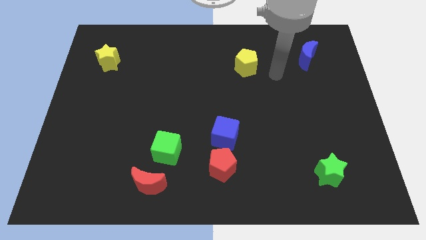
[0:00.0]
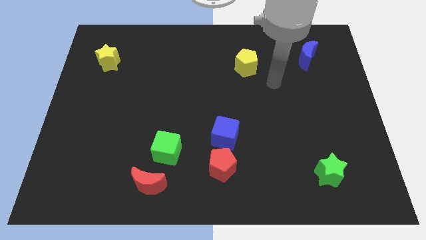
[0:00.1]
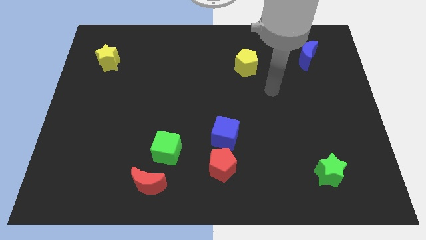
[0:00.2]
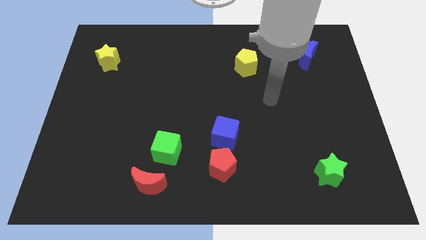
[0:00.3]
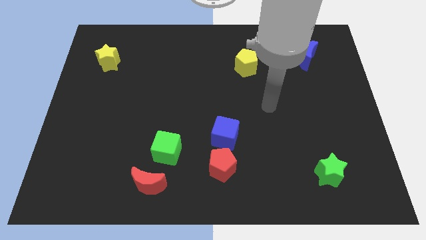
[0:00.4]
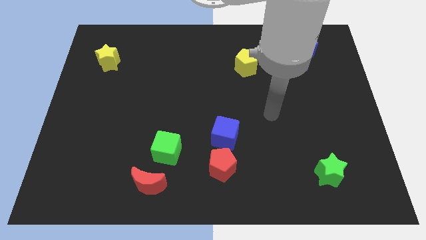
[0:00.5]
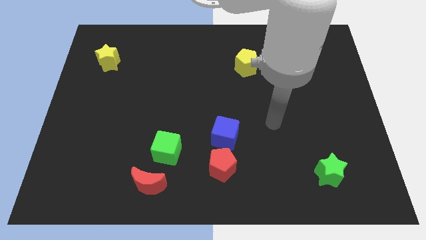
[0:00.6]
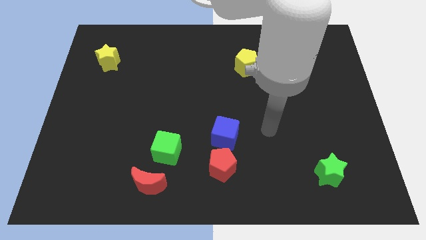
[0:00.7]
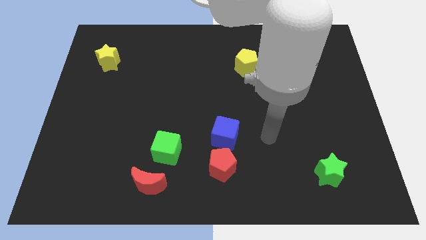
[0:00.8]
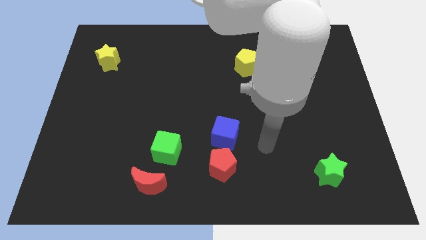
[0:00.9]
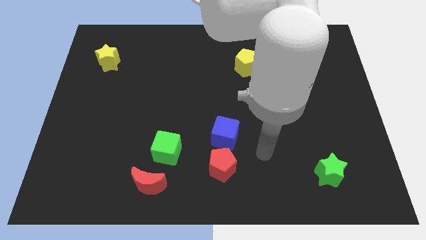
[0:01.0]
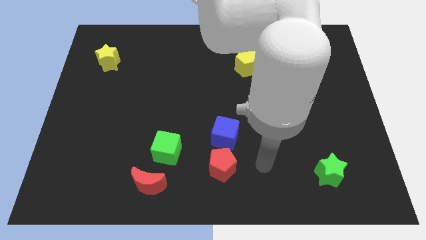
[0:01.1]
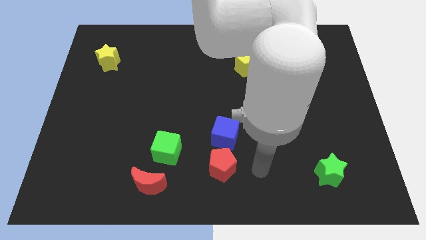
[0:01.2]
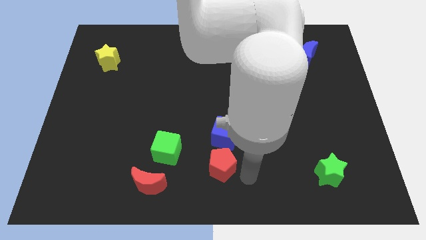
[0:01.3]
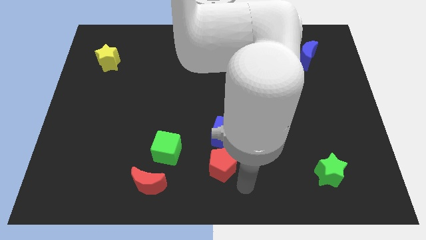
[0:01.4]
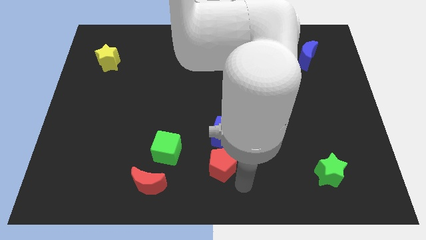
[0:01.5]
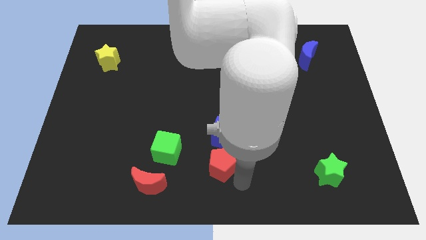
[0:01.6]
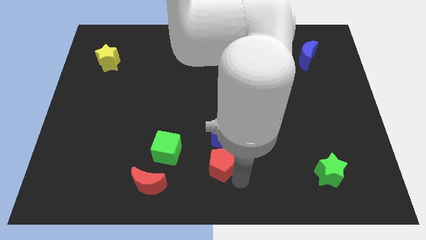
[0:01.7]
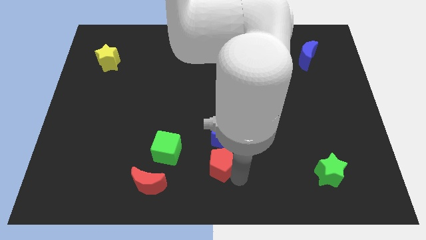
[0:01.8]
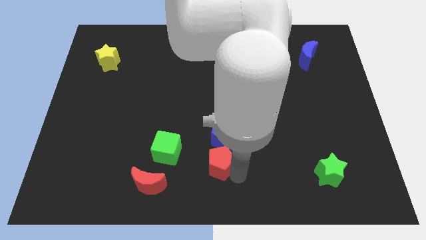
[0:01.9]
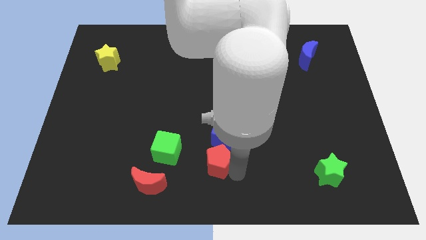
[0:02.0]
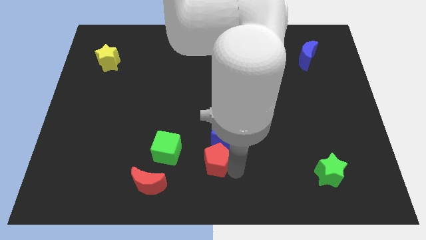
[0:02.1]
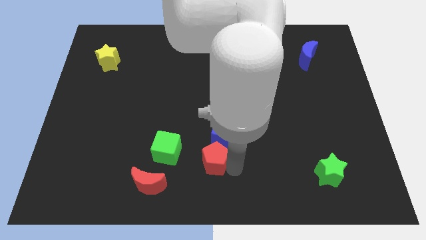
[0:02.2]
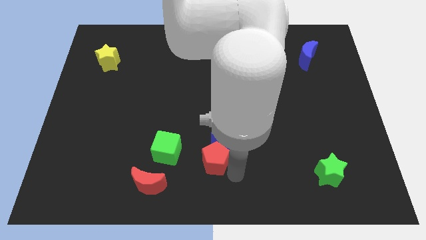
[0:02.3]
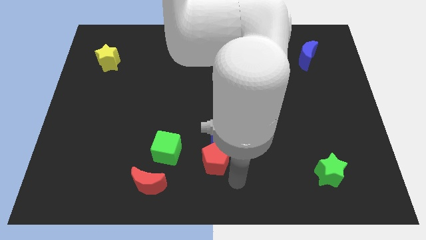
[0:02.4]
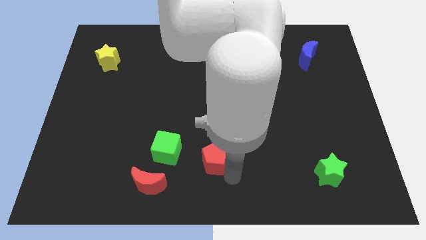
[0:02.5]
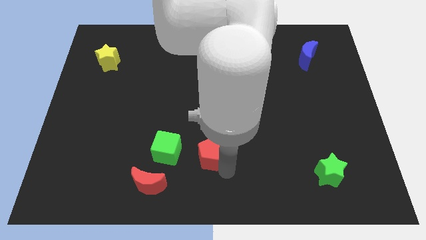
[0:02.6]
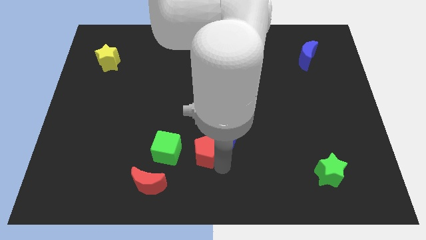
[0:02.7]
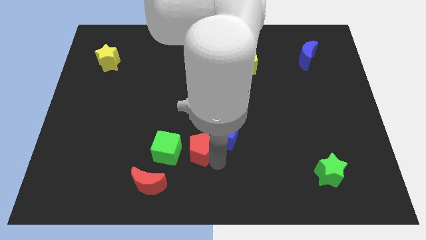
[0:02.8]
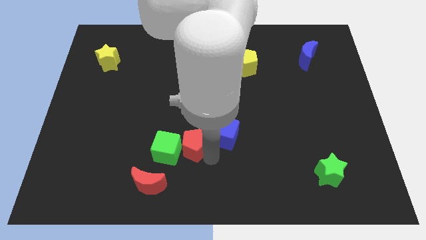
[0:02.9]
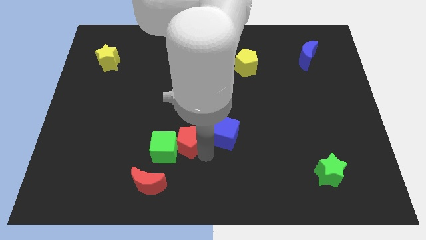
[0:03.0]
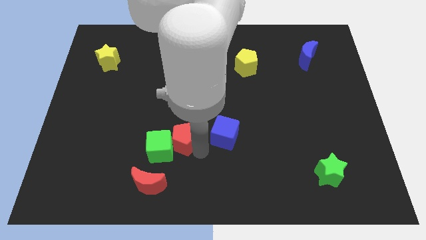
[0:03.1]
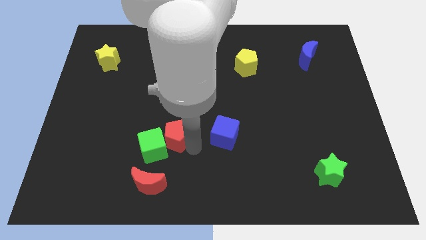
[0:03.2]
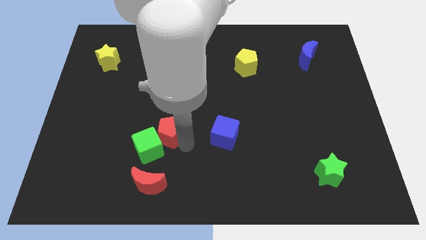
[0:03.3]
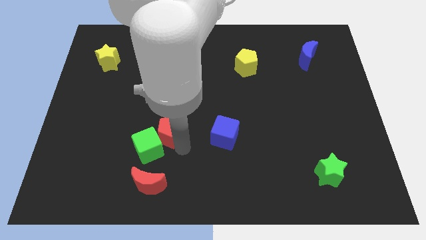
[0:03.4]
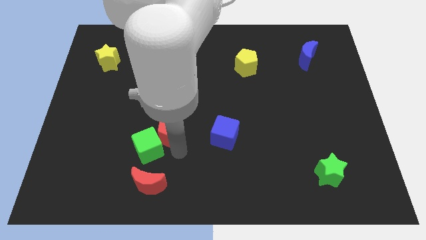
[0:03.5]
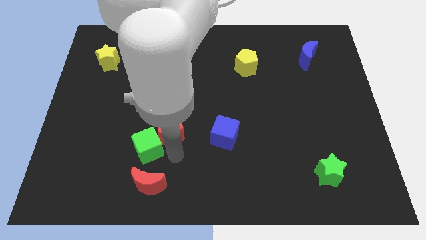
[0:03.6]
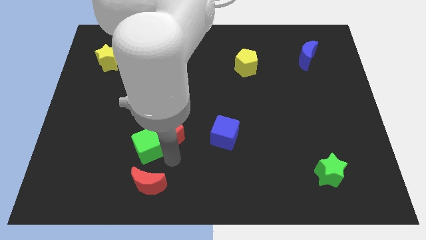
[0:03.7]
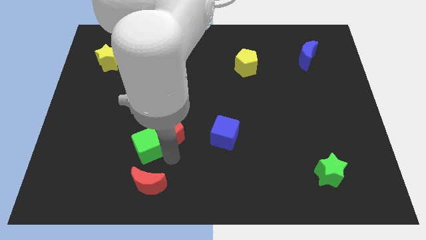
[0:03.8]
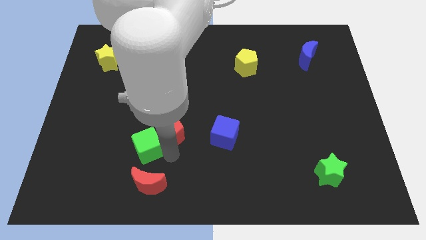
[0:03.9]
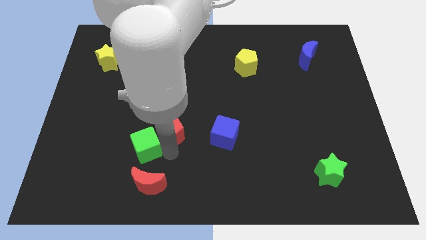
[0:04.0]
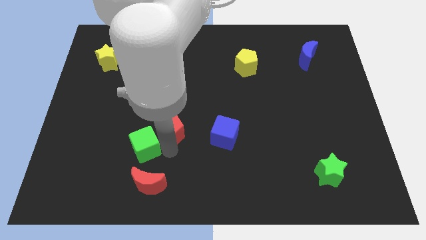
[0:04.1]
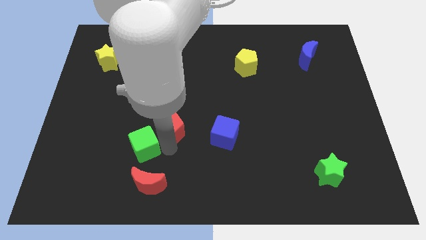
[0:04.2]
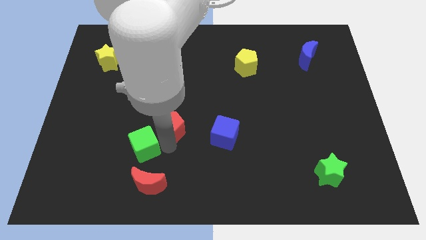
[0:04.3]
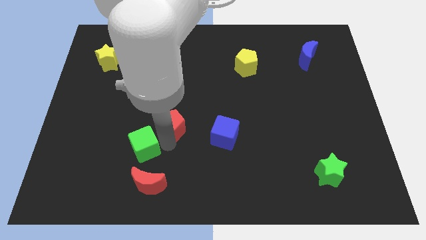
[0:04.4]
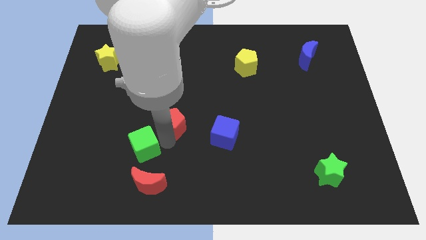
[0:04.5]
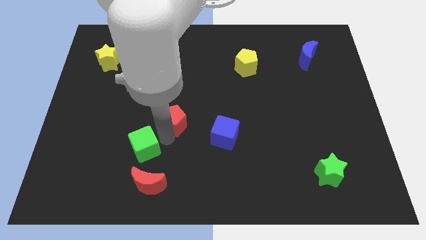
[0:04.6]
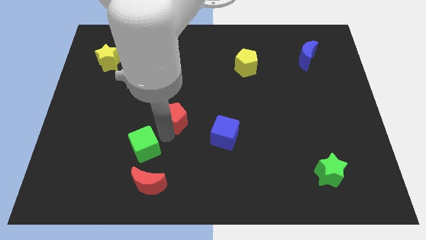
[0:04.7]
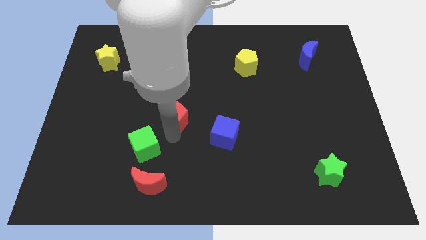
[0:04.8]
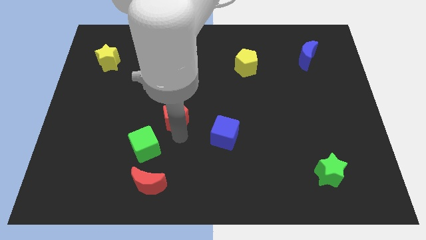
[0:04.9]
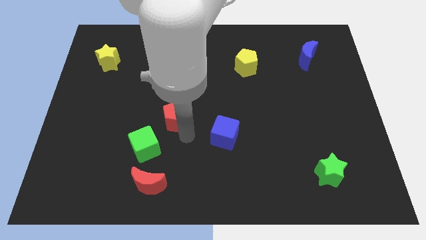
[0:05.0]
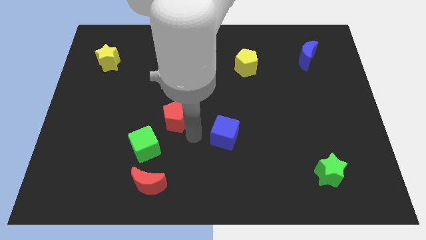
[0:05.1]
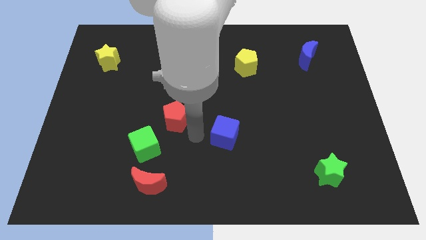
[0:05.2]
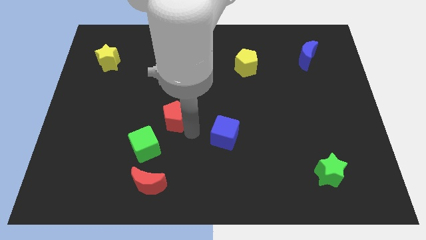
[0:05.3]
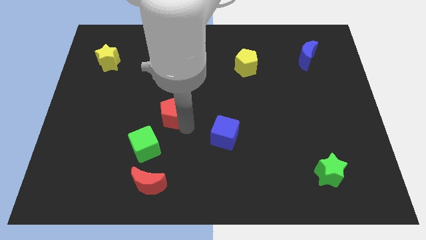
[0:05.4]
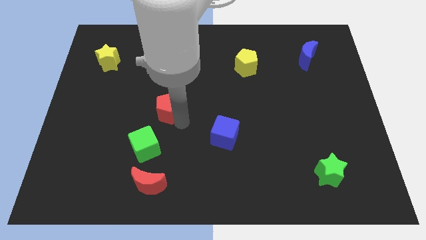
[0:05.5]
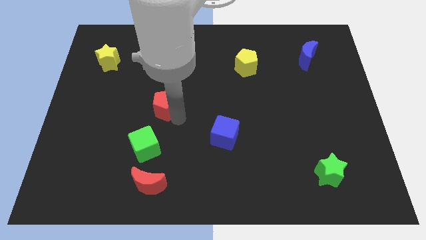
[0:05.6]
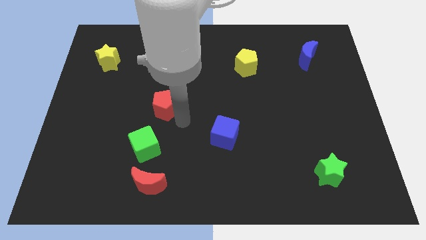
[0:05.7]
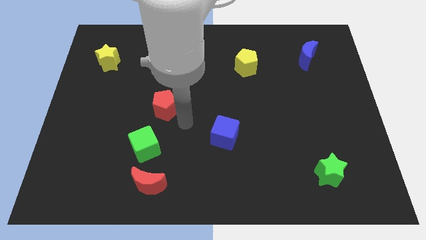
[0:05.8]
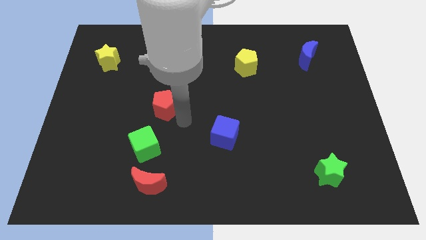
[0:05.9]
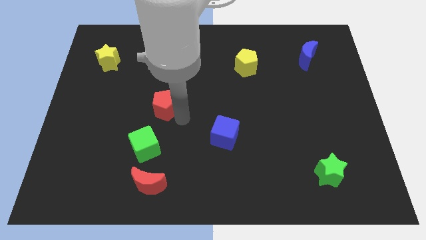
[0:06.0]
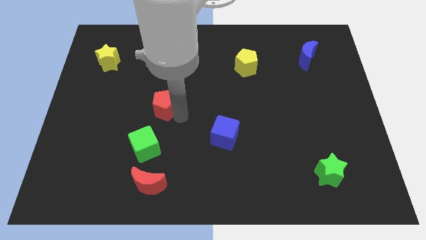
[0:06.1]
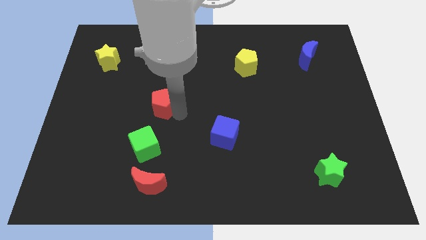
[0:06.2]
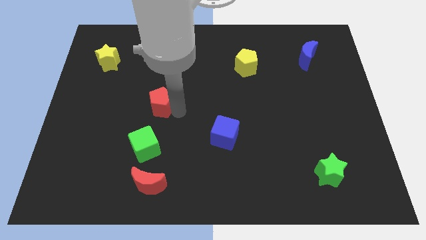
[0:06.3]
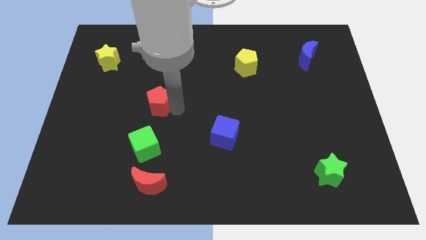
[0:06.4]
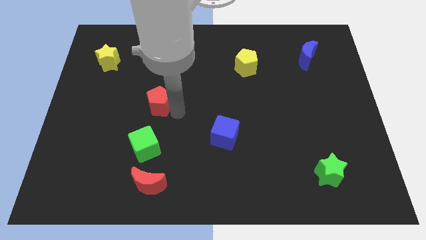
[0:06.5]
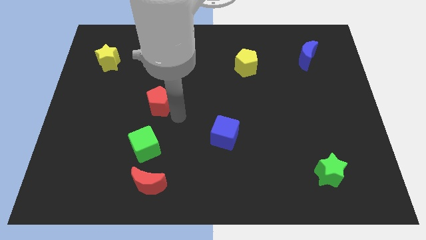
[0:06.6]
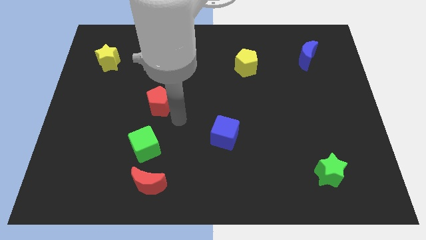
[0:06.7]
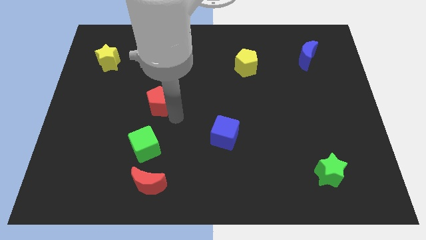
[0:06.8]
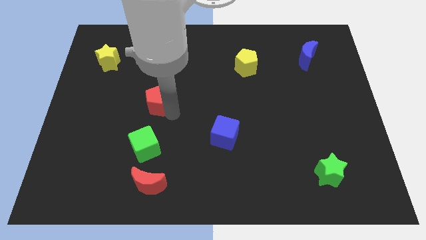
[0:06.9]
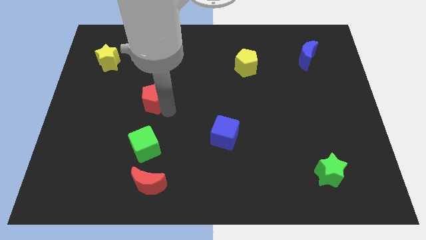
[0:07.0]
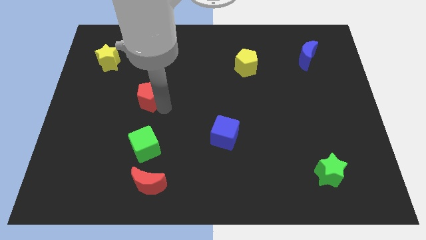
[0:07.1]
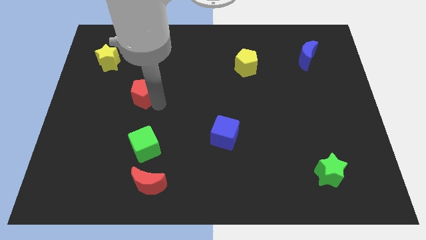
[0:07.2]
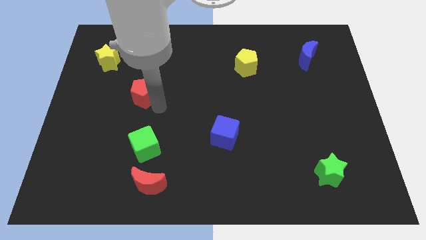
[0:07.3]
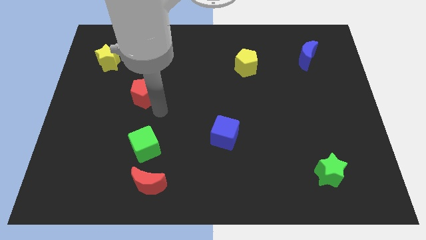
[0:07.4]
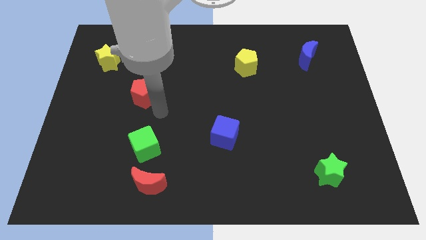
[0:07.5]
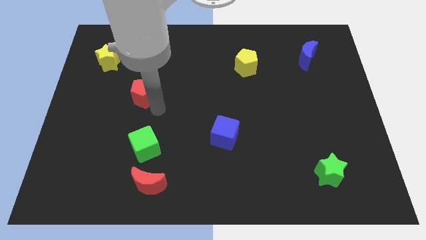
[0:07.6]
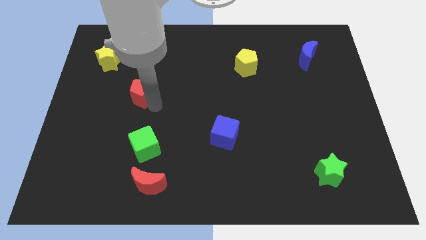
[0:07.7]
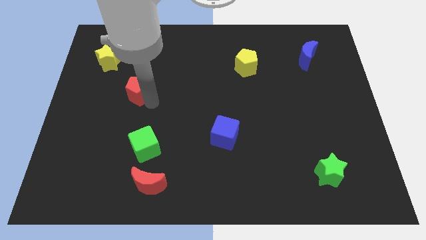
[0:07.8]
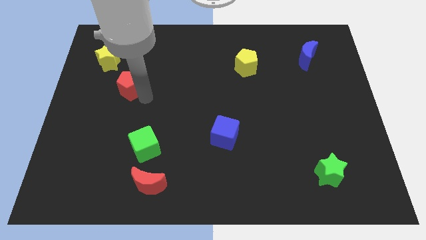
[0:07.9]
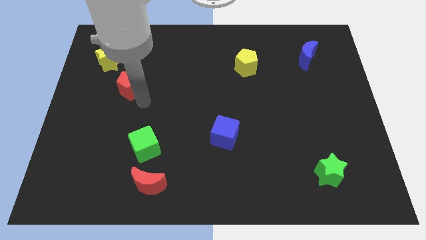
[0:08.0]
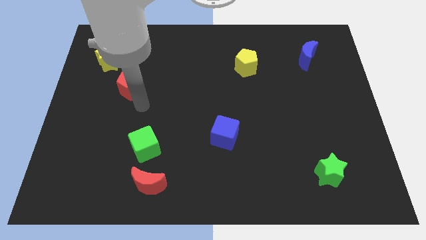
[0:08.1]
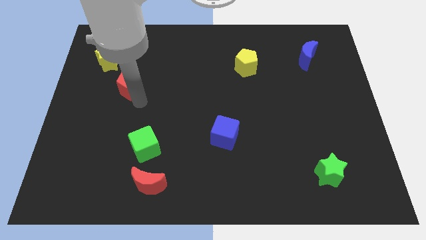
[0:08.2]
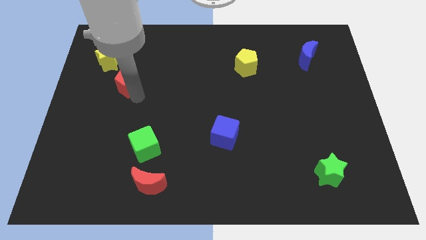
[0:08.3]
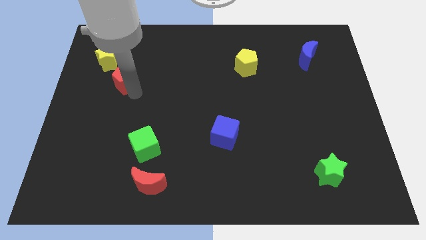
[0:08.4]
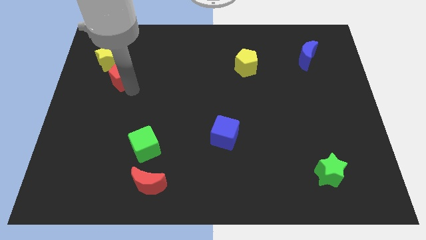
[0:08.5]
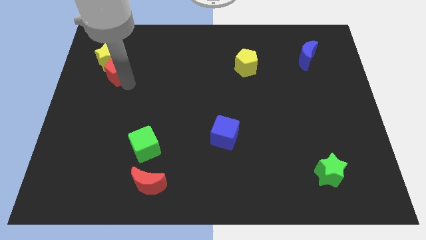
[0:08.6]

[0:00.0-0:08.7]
move the red pentagon to the yellow star
